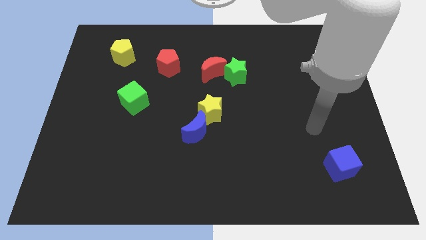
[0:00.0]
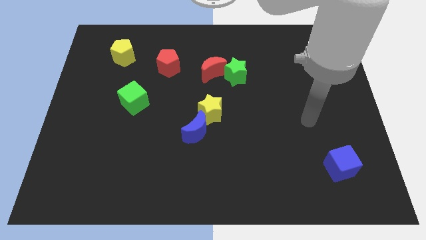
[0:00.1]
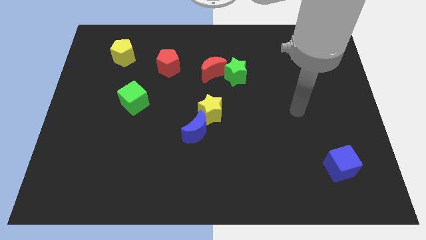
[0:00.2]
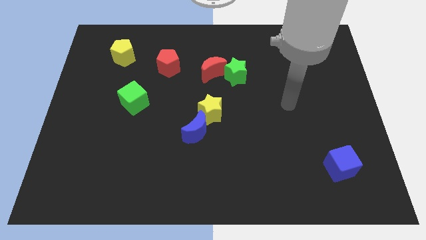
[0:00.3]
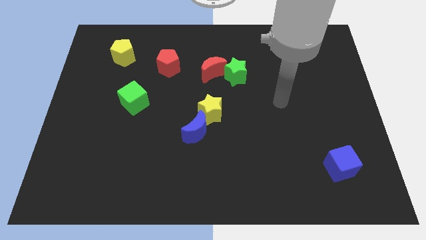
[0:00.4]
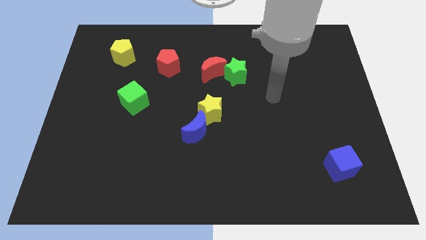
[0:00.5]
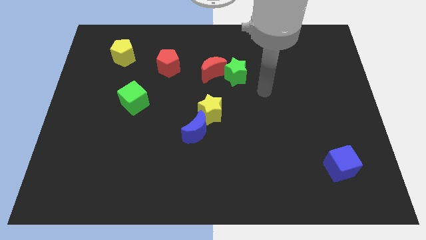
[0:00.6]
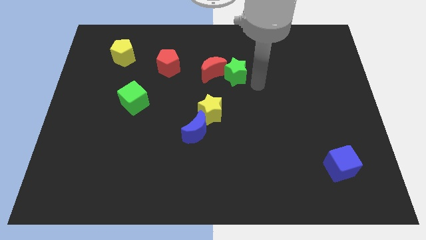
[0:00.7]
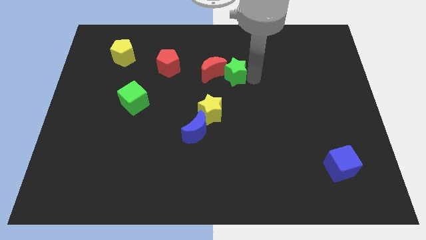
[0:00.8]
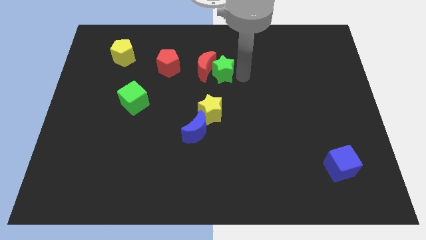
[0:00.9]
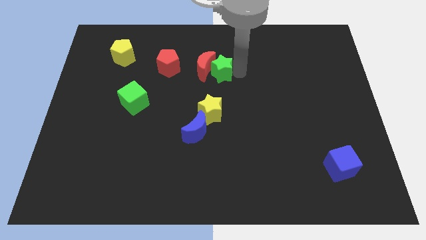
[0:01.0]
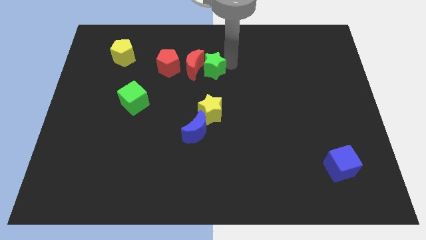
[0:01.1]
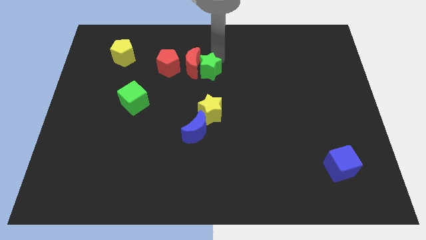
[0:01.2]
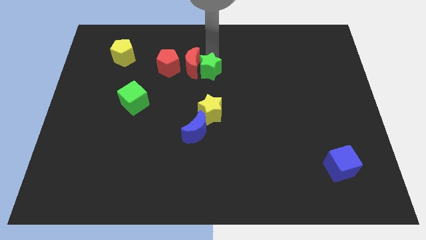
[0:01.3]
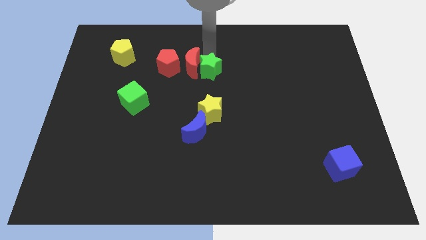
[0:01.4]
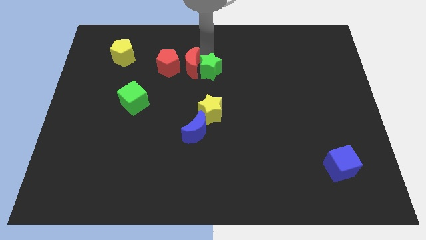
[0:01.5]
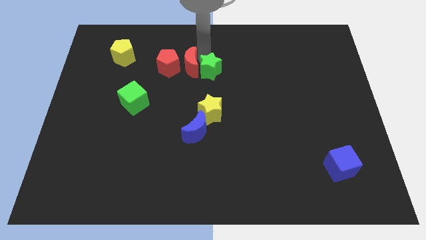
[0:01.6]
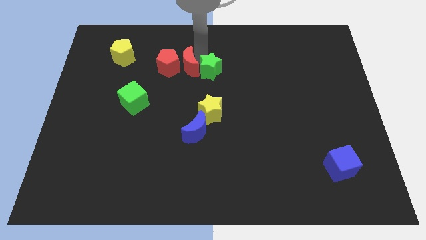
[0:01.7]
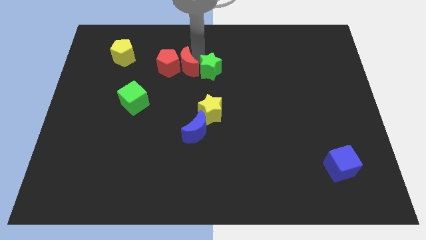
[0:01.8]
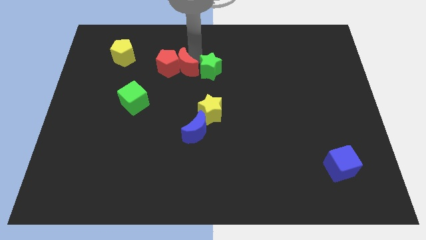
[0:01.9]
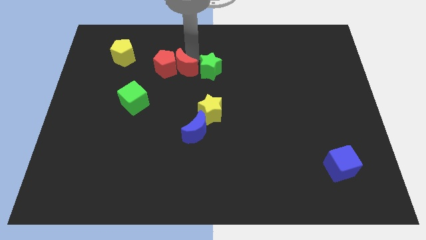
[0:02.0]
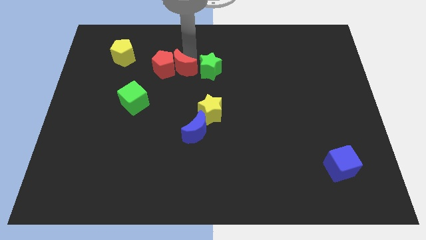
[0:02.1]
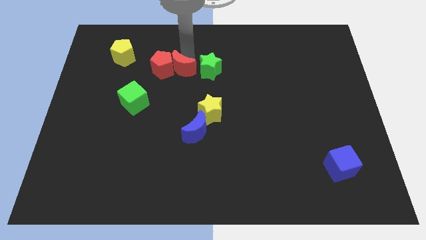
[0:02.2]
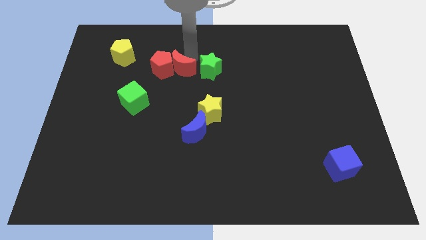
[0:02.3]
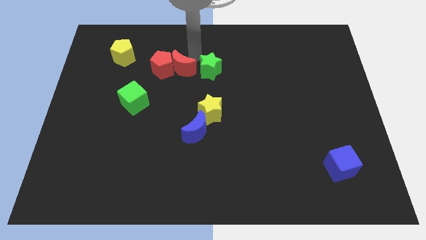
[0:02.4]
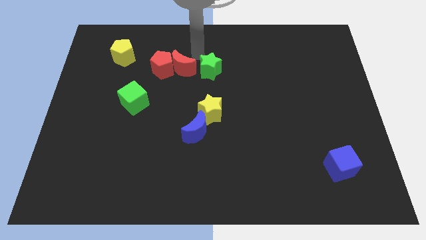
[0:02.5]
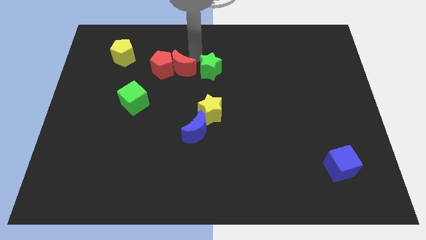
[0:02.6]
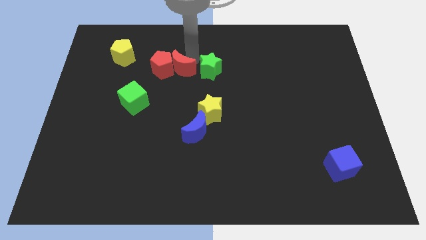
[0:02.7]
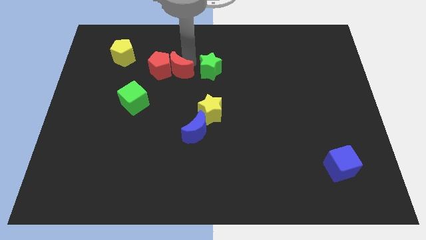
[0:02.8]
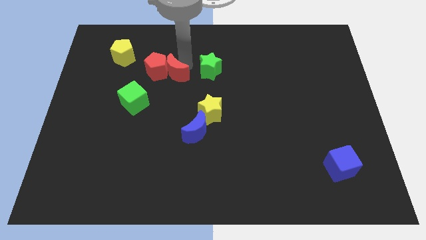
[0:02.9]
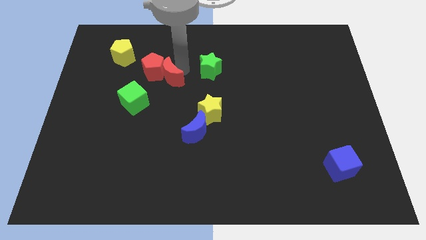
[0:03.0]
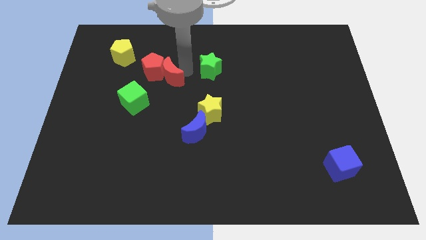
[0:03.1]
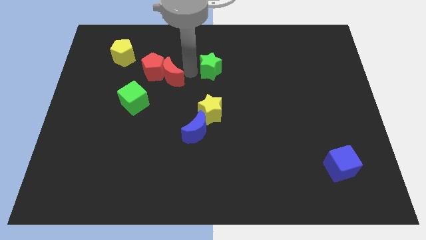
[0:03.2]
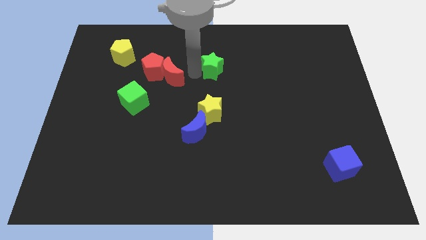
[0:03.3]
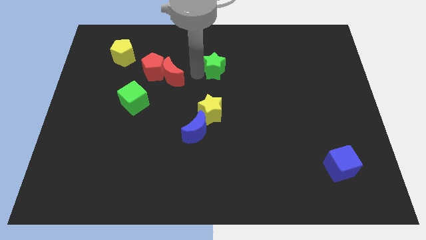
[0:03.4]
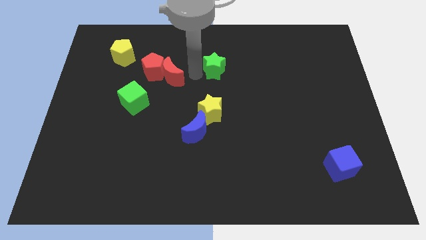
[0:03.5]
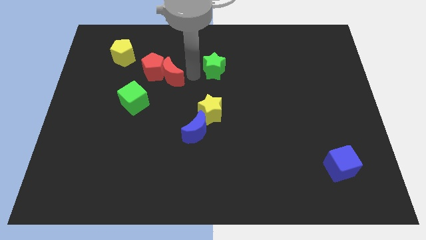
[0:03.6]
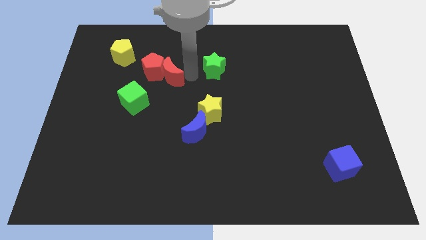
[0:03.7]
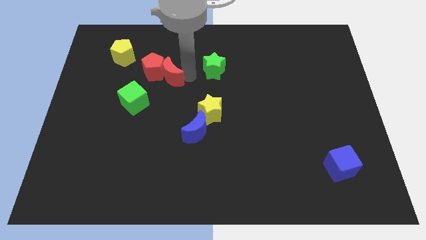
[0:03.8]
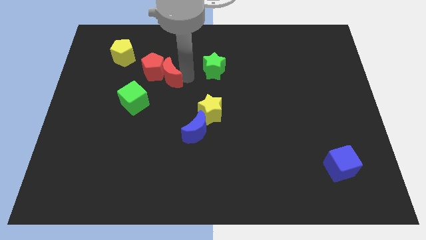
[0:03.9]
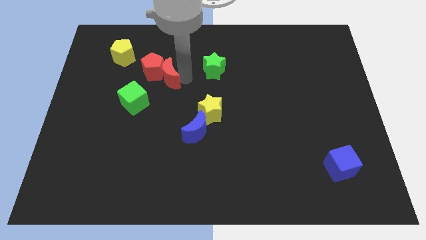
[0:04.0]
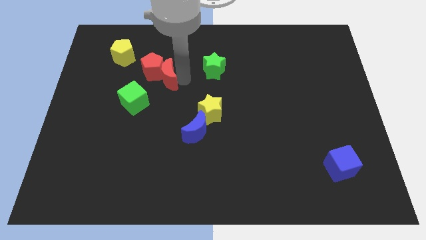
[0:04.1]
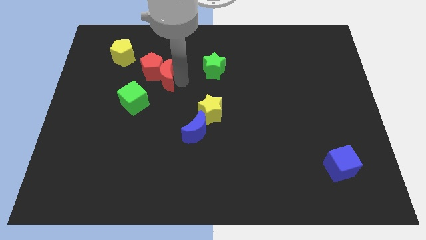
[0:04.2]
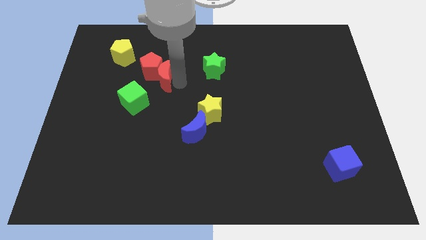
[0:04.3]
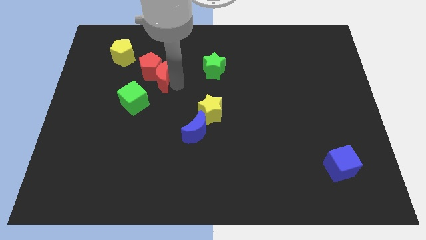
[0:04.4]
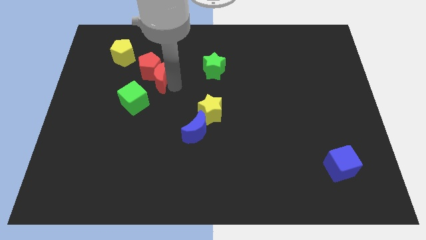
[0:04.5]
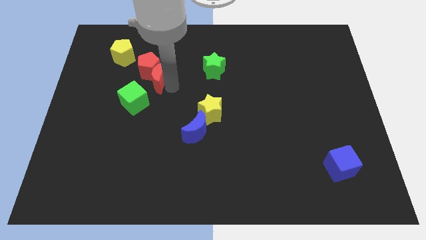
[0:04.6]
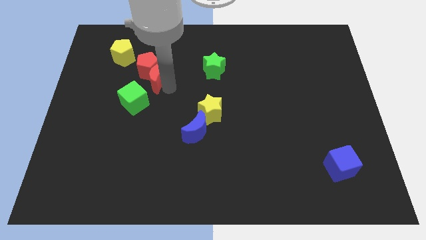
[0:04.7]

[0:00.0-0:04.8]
move the red moon above the green cube

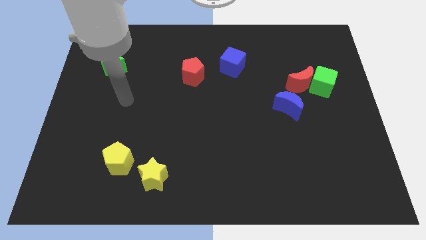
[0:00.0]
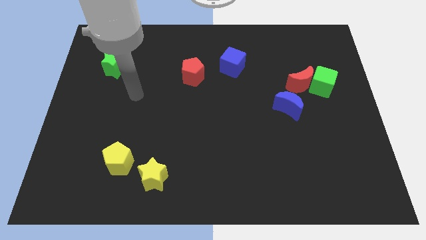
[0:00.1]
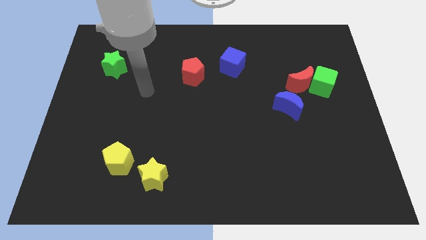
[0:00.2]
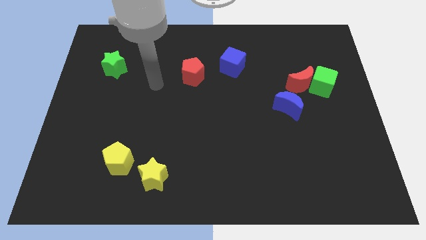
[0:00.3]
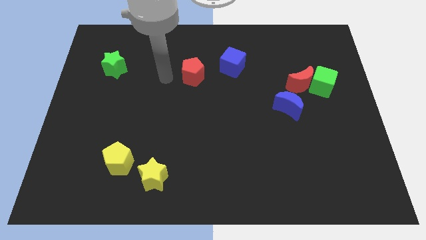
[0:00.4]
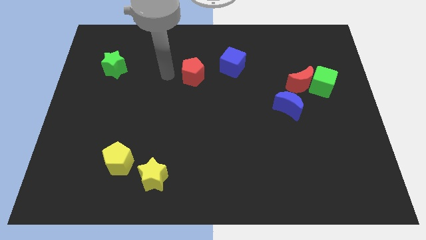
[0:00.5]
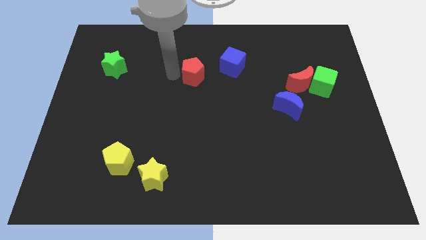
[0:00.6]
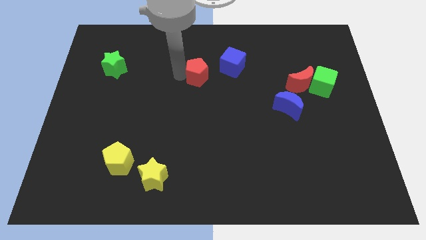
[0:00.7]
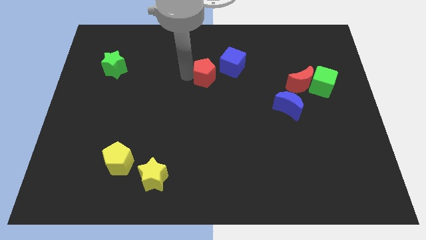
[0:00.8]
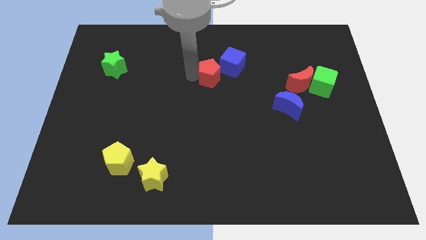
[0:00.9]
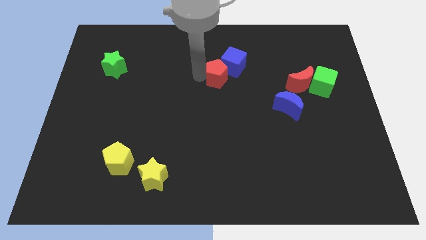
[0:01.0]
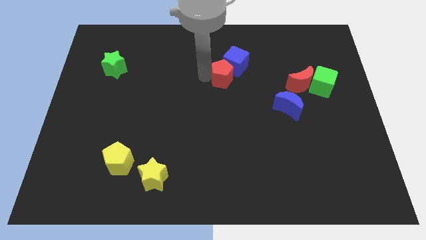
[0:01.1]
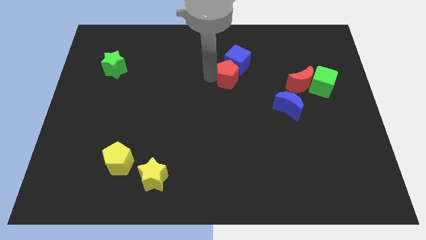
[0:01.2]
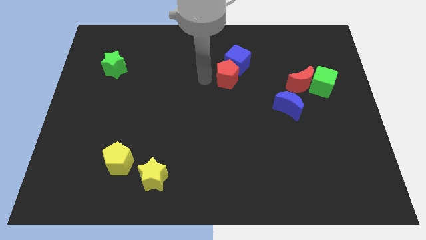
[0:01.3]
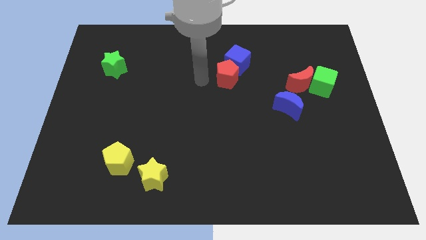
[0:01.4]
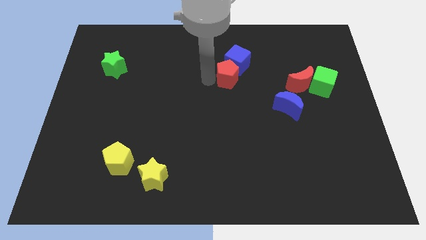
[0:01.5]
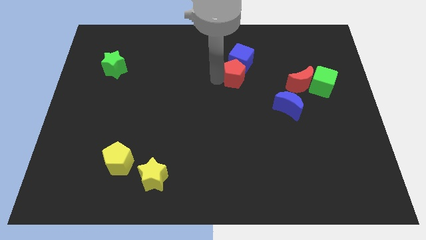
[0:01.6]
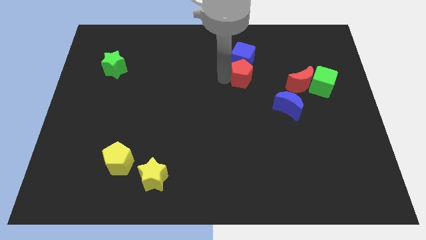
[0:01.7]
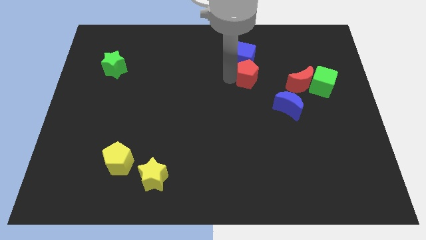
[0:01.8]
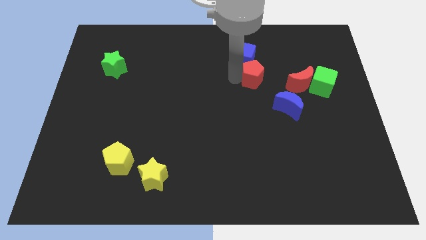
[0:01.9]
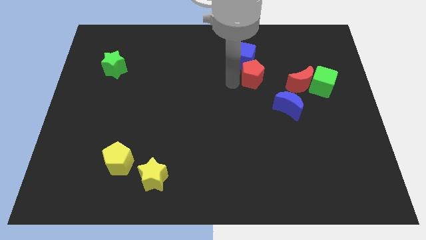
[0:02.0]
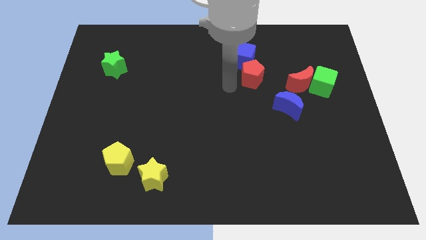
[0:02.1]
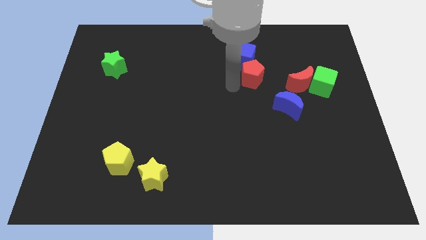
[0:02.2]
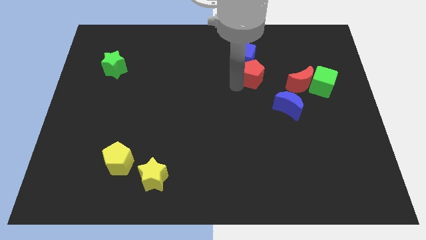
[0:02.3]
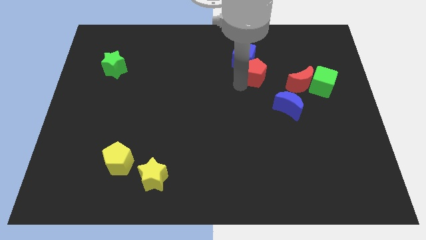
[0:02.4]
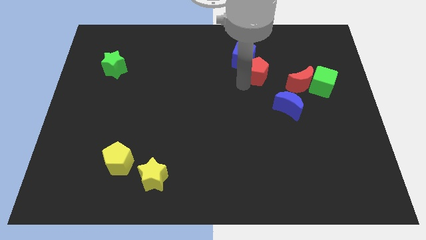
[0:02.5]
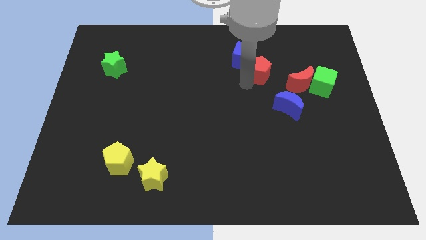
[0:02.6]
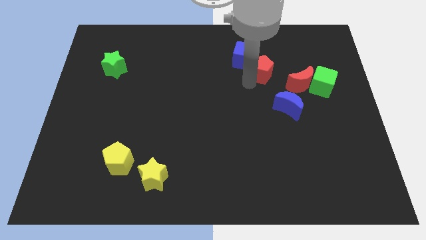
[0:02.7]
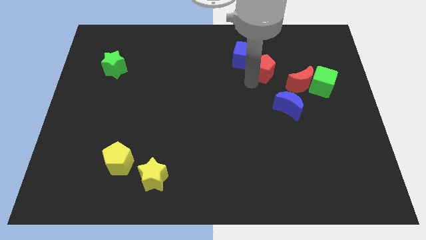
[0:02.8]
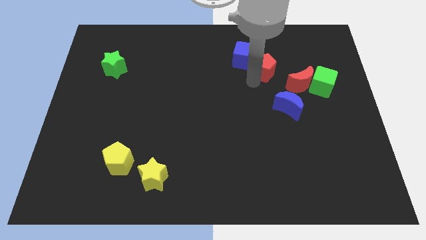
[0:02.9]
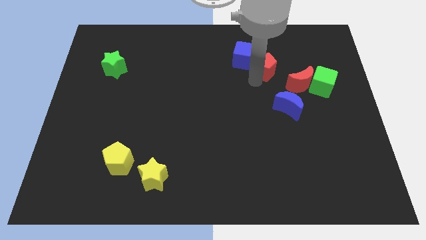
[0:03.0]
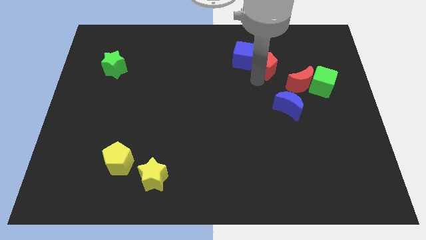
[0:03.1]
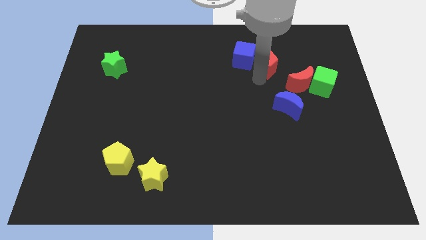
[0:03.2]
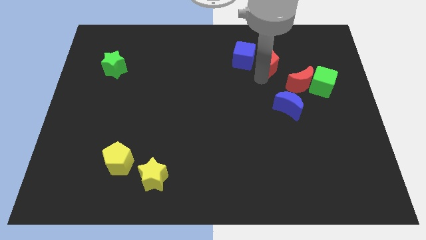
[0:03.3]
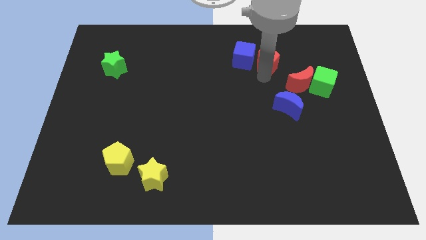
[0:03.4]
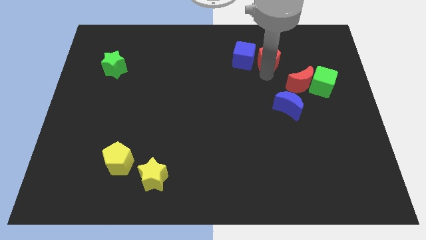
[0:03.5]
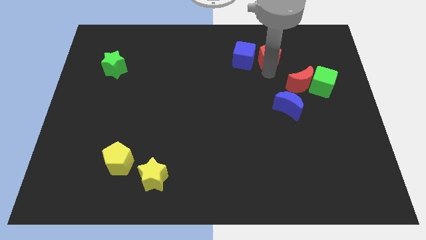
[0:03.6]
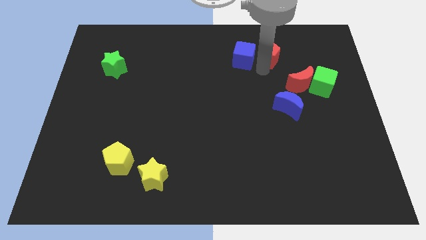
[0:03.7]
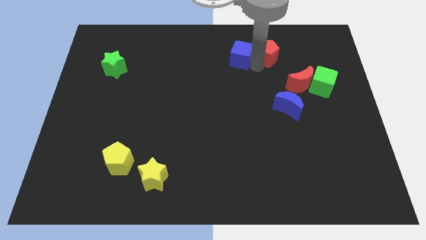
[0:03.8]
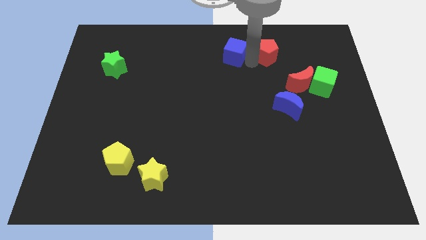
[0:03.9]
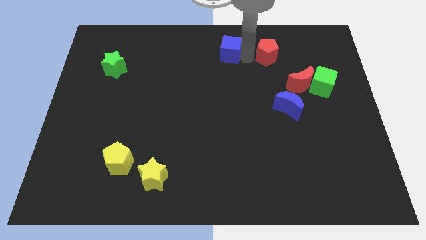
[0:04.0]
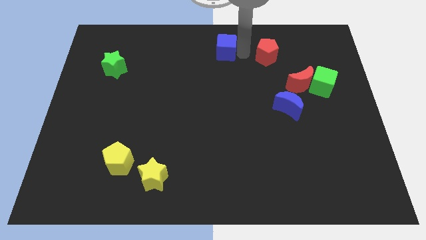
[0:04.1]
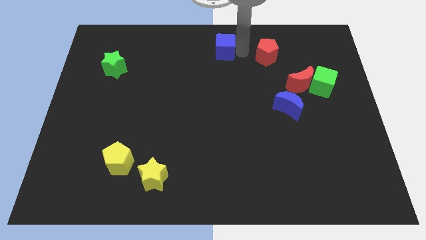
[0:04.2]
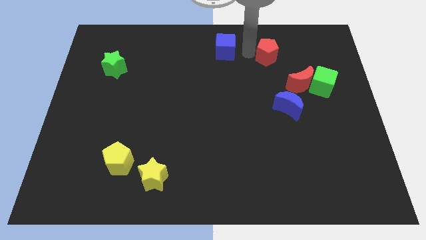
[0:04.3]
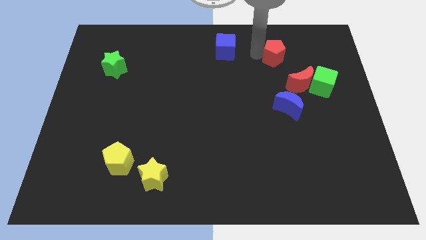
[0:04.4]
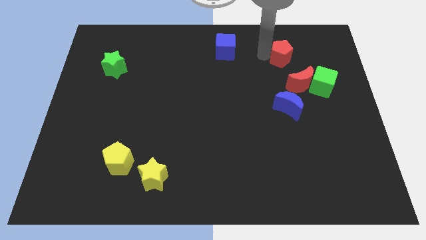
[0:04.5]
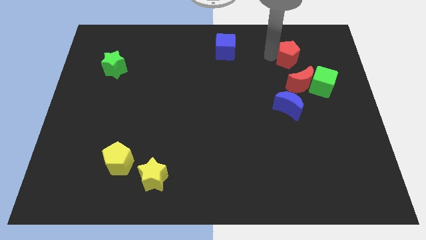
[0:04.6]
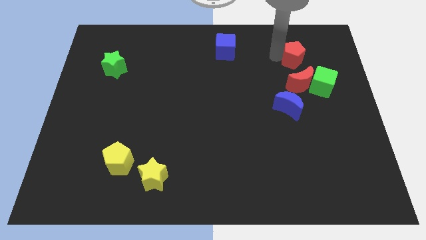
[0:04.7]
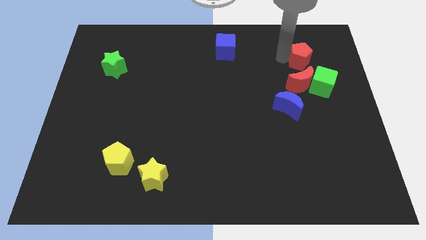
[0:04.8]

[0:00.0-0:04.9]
put the red pentagon to the top side of the green cube
